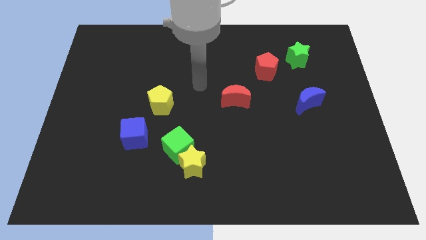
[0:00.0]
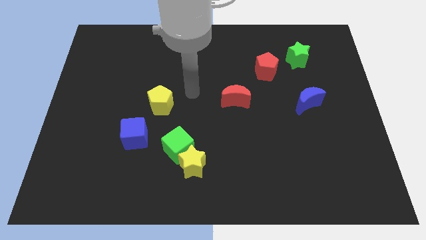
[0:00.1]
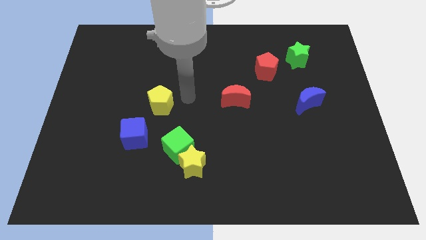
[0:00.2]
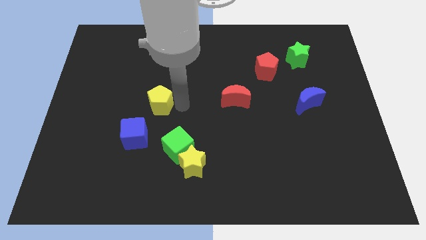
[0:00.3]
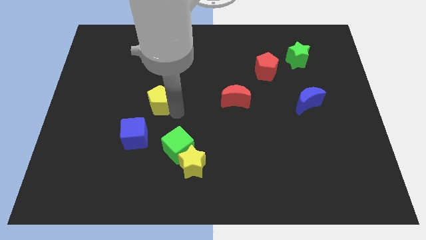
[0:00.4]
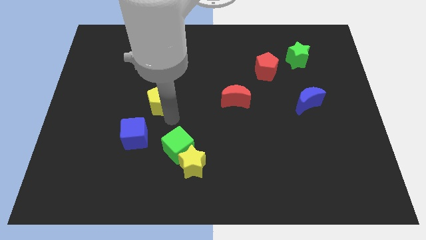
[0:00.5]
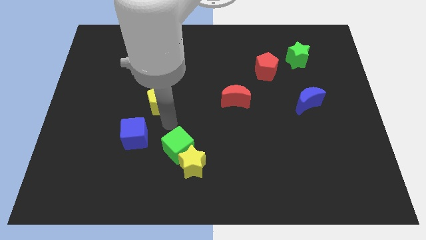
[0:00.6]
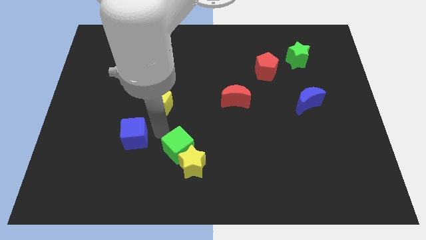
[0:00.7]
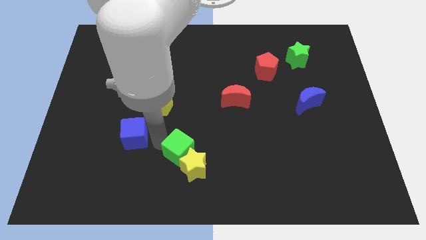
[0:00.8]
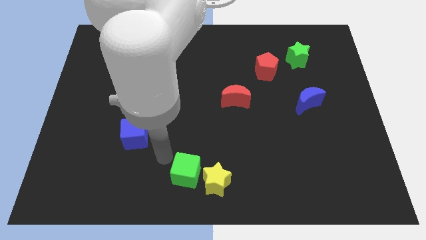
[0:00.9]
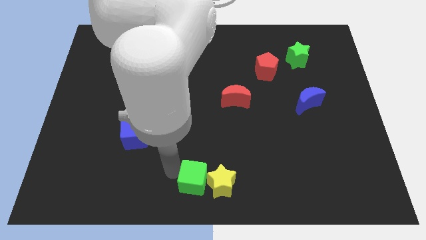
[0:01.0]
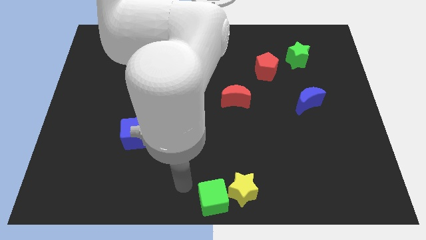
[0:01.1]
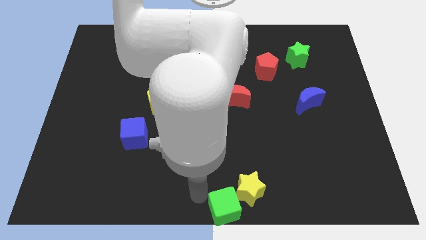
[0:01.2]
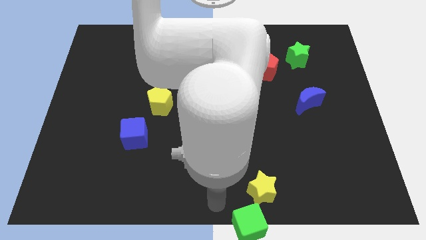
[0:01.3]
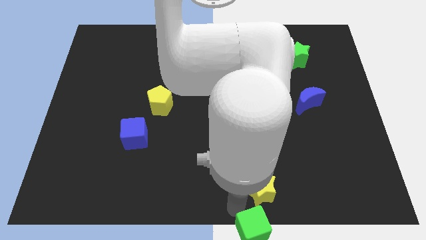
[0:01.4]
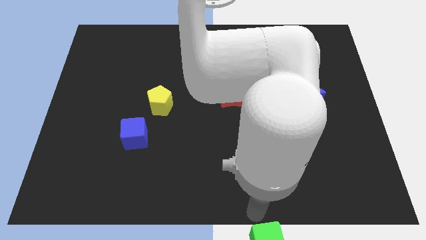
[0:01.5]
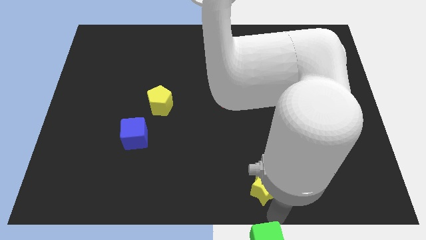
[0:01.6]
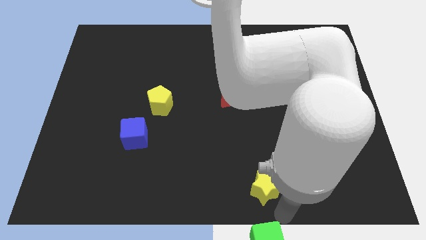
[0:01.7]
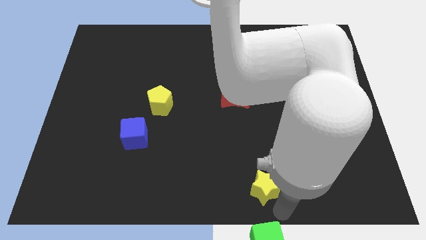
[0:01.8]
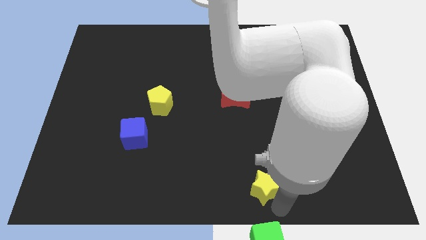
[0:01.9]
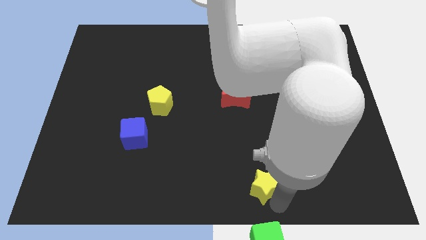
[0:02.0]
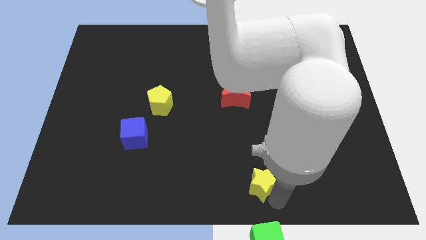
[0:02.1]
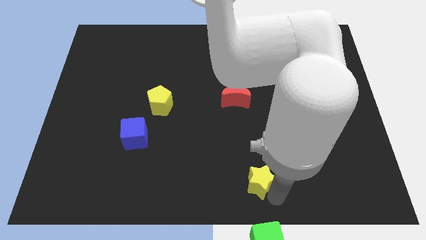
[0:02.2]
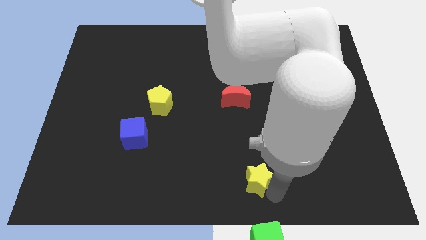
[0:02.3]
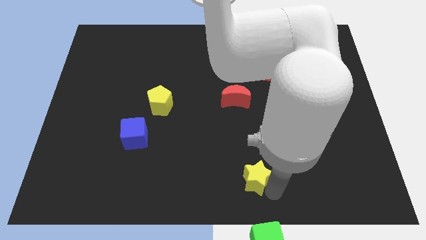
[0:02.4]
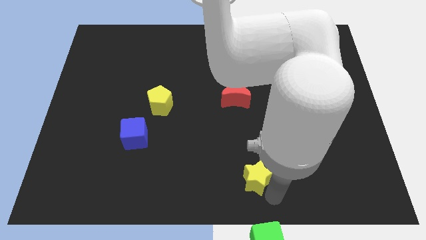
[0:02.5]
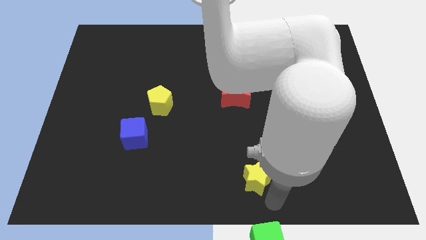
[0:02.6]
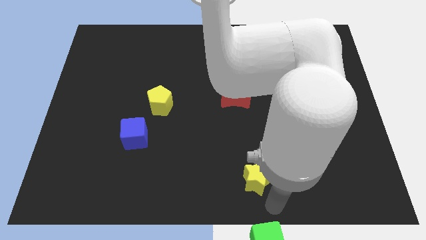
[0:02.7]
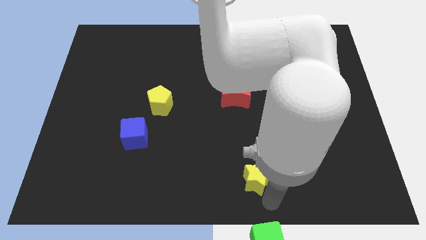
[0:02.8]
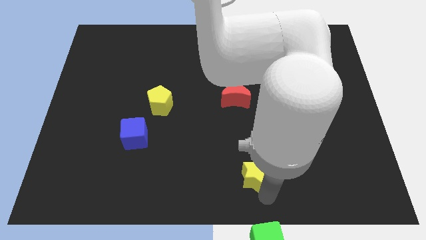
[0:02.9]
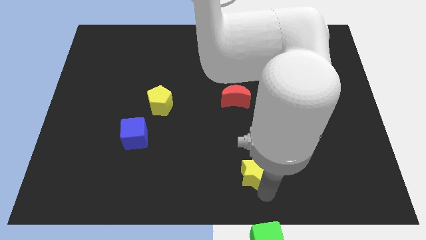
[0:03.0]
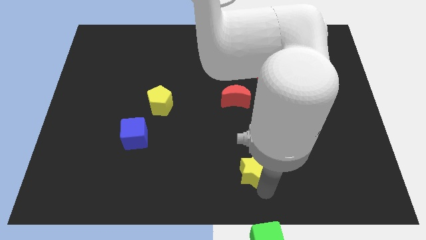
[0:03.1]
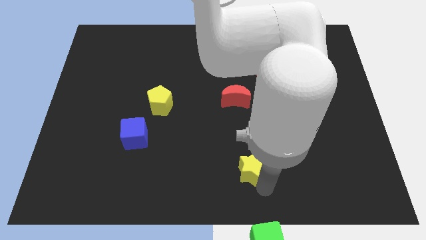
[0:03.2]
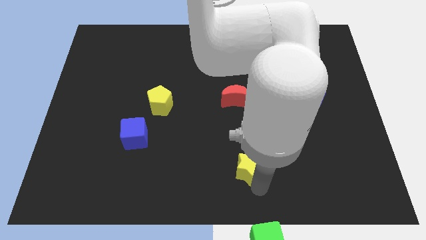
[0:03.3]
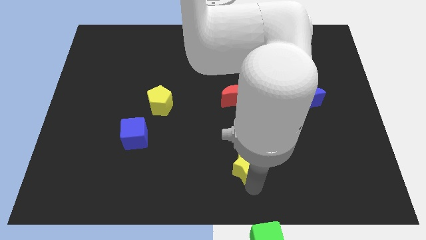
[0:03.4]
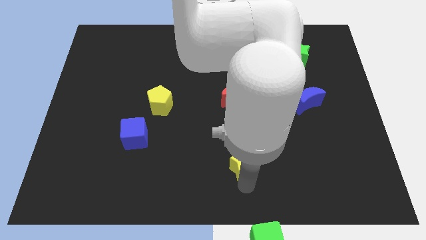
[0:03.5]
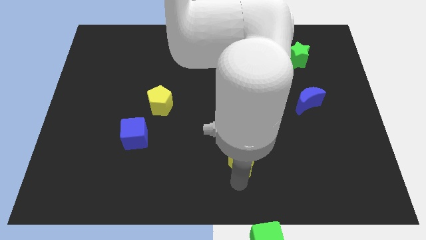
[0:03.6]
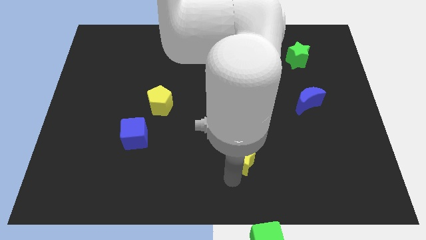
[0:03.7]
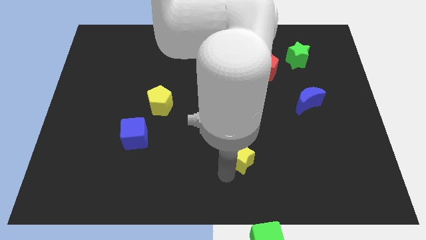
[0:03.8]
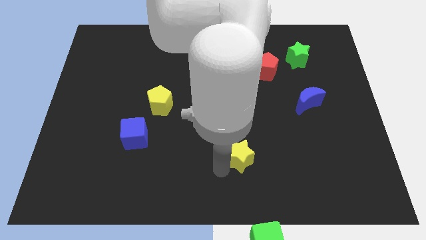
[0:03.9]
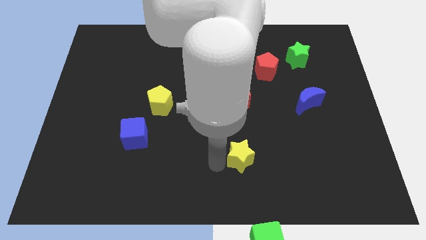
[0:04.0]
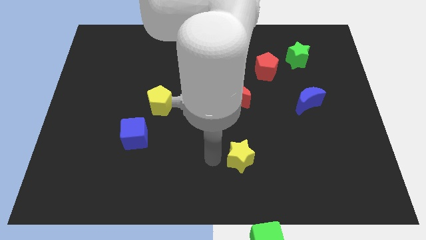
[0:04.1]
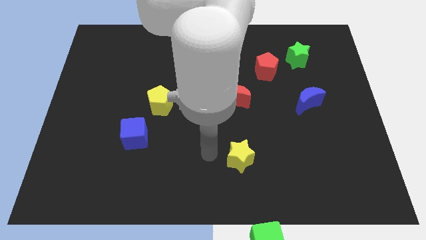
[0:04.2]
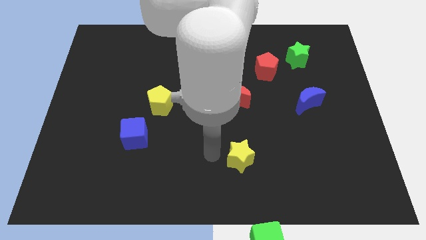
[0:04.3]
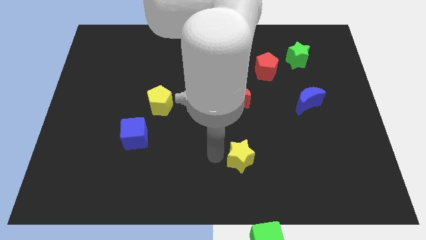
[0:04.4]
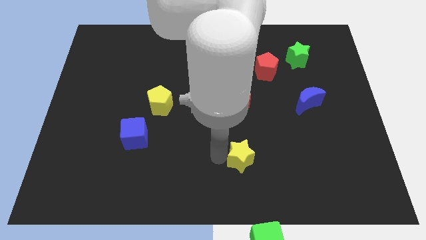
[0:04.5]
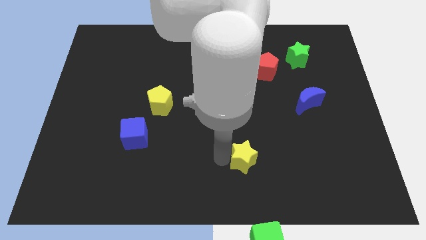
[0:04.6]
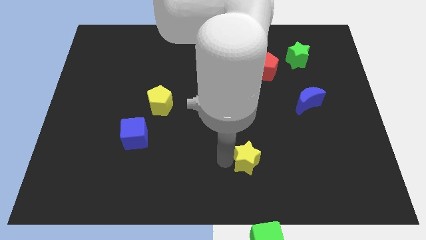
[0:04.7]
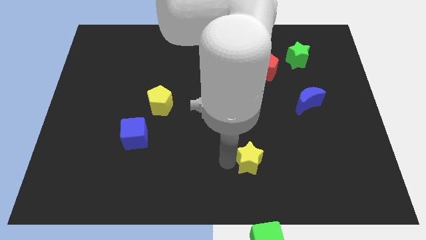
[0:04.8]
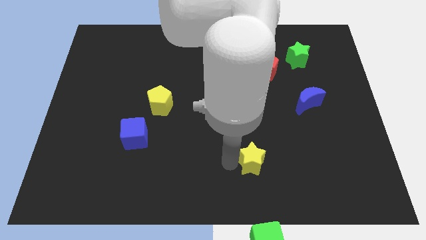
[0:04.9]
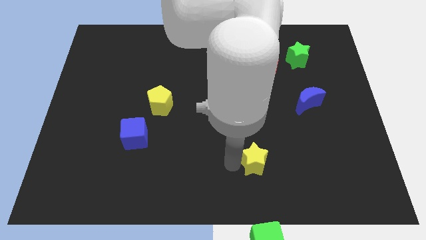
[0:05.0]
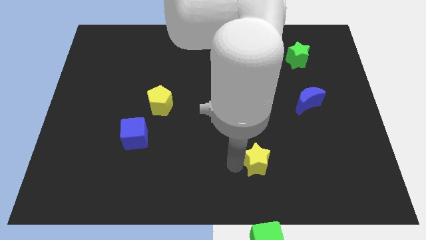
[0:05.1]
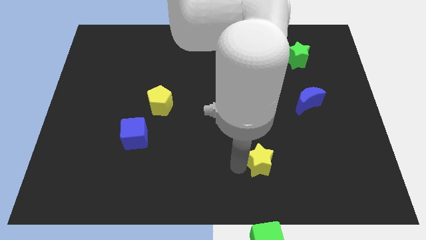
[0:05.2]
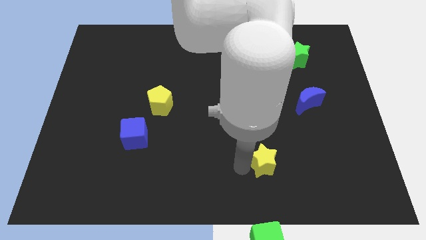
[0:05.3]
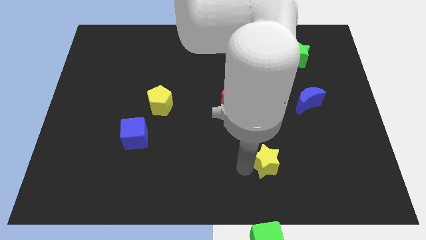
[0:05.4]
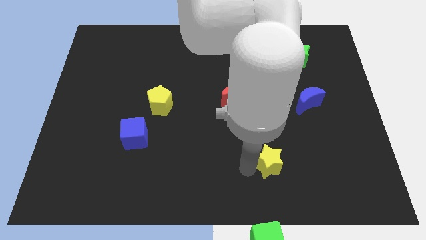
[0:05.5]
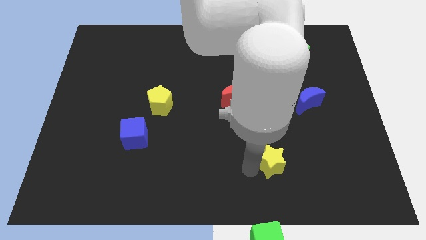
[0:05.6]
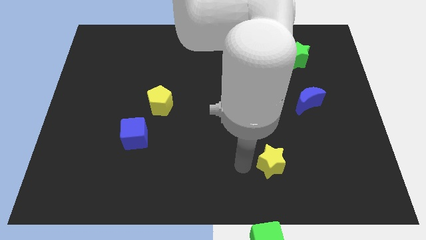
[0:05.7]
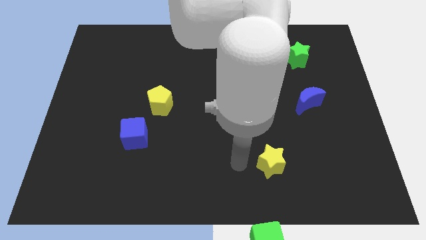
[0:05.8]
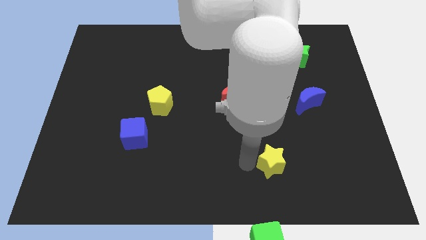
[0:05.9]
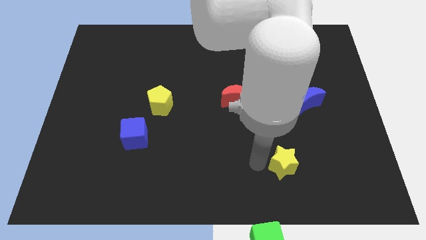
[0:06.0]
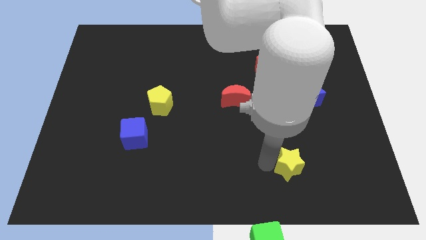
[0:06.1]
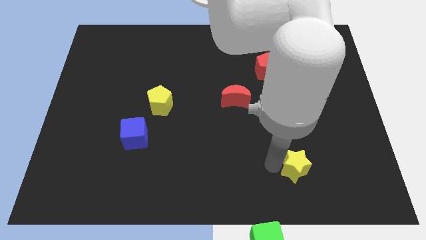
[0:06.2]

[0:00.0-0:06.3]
push the yellow star to the right

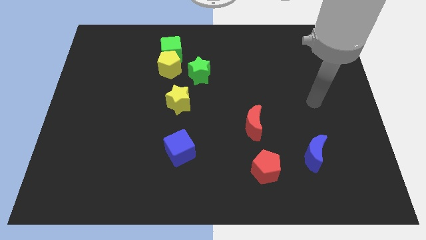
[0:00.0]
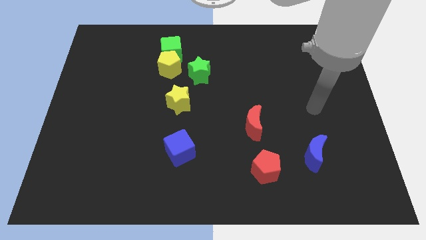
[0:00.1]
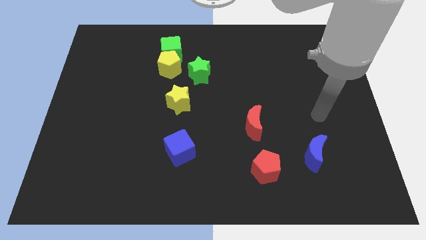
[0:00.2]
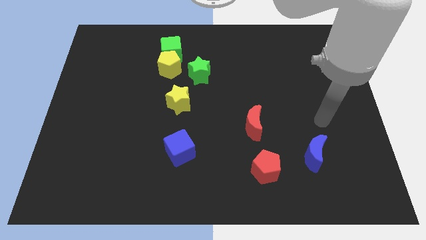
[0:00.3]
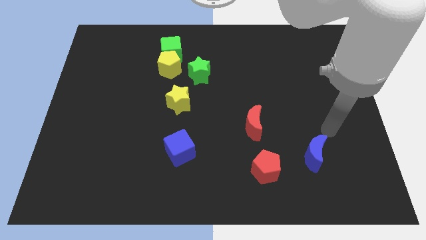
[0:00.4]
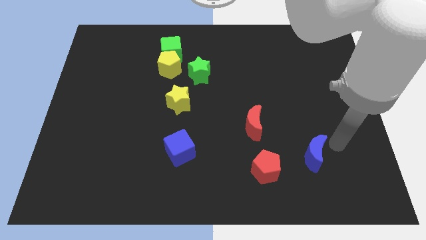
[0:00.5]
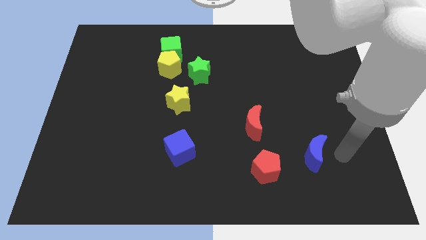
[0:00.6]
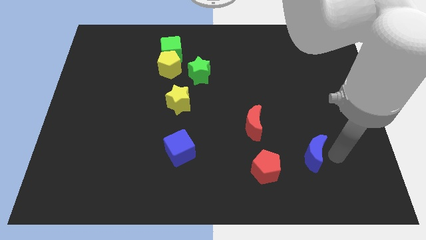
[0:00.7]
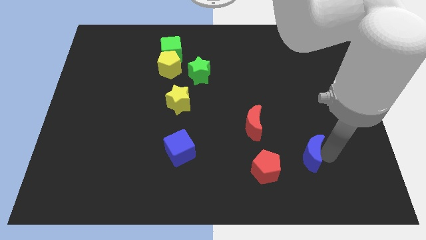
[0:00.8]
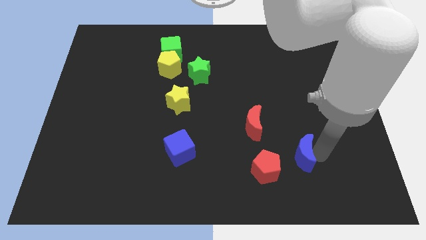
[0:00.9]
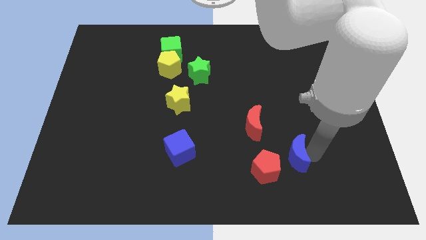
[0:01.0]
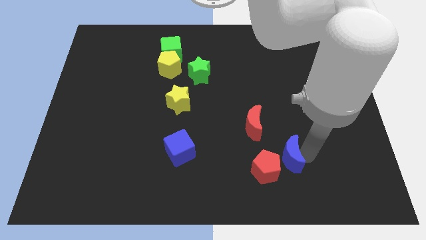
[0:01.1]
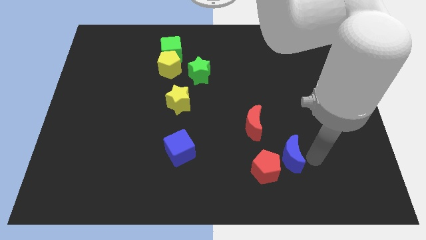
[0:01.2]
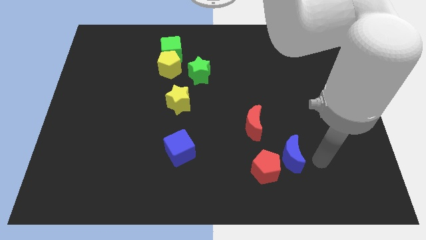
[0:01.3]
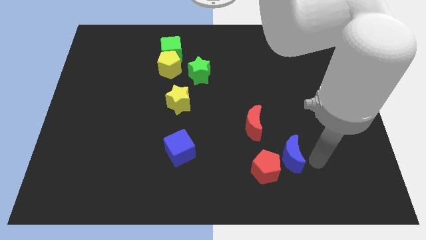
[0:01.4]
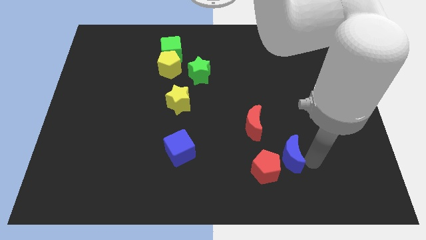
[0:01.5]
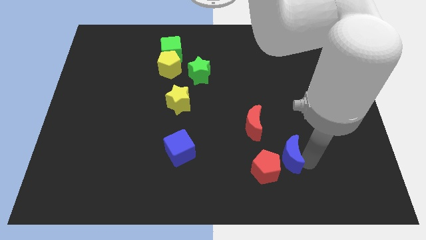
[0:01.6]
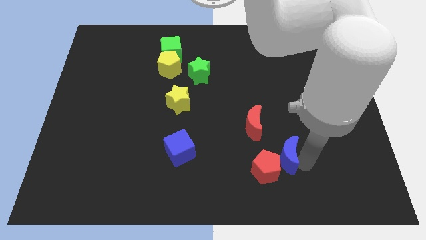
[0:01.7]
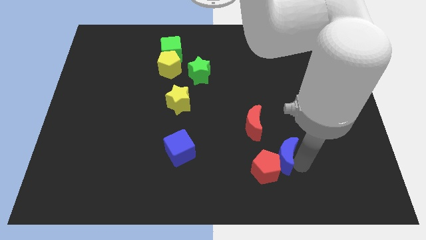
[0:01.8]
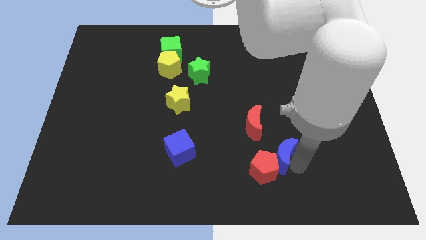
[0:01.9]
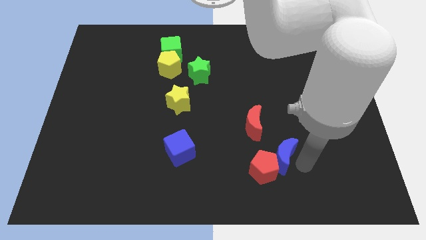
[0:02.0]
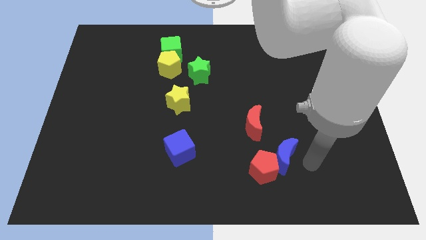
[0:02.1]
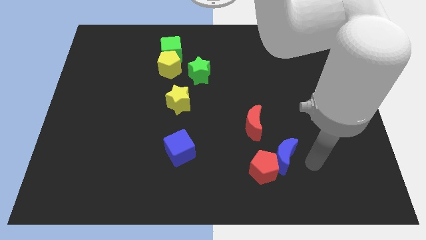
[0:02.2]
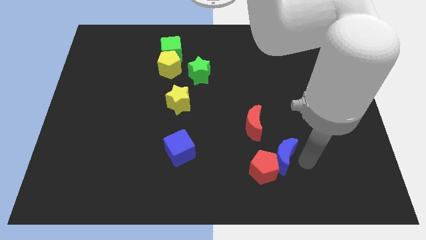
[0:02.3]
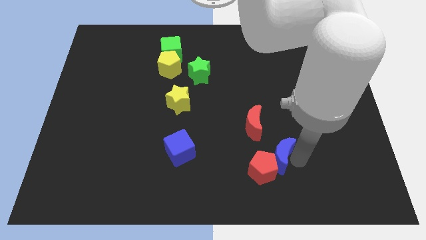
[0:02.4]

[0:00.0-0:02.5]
move the blue moon slightly to the left
